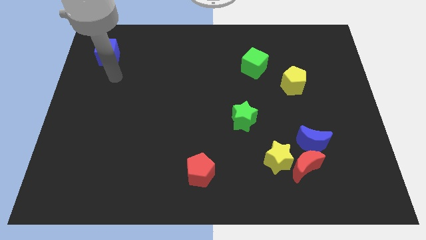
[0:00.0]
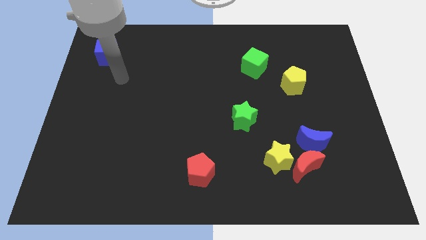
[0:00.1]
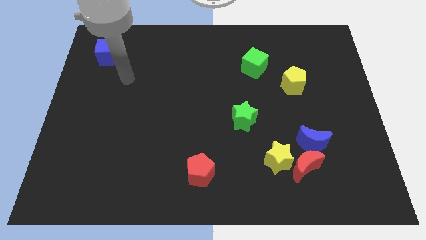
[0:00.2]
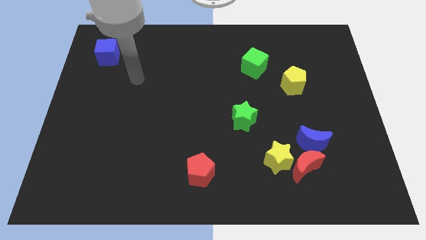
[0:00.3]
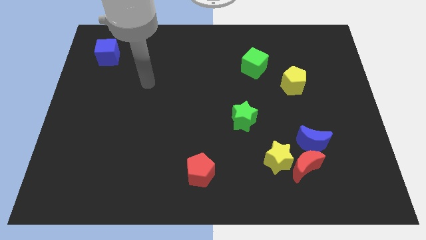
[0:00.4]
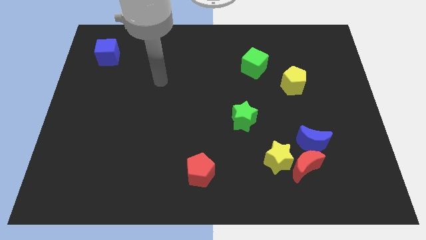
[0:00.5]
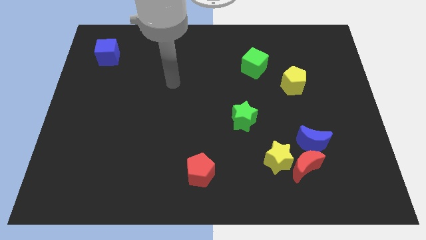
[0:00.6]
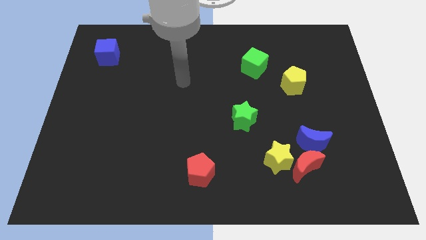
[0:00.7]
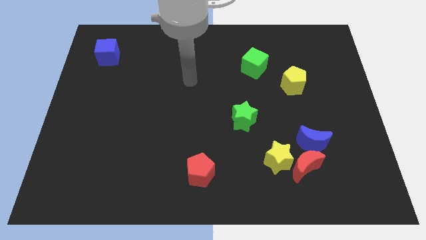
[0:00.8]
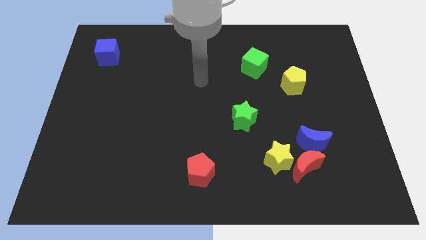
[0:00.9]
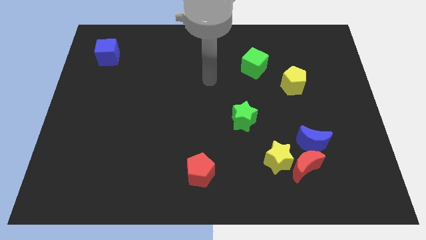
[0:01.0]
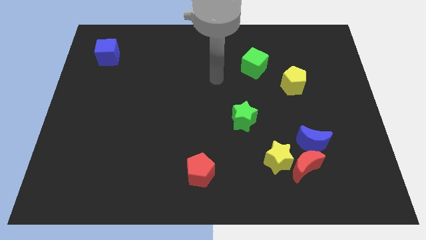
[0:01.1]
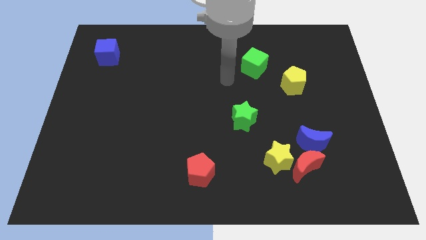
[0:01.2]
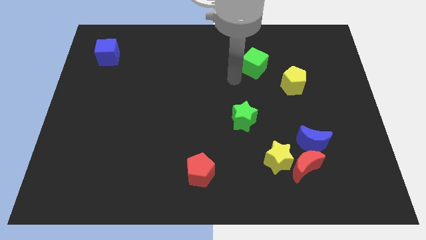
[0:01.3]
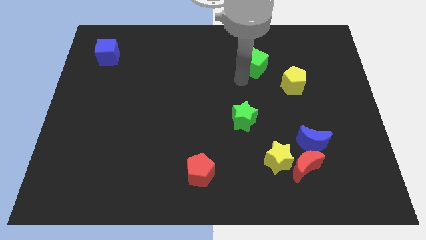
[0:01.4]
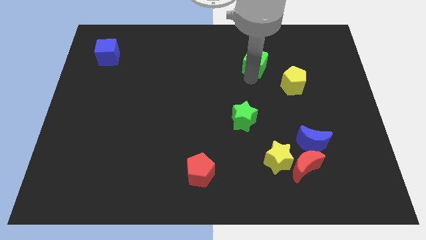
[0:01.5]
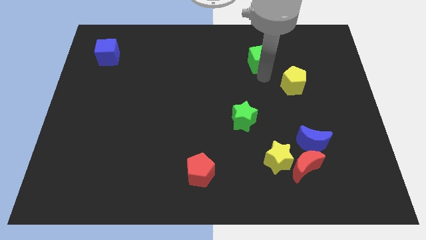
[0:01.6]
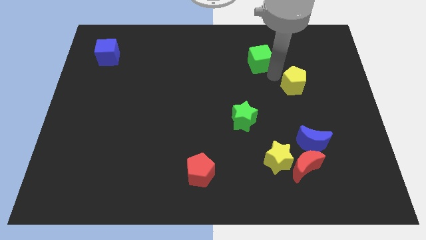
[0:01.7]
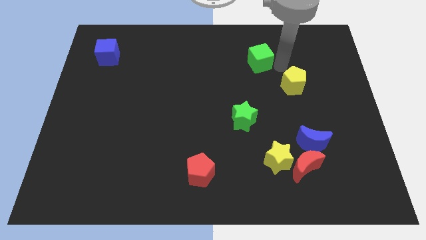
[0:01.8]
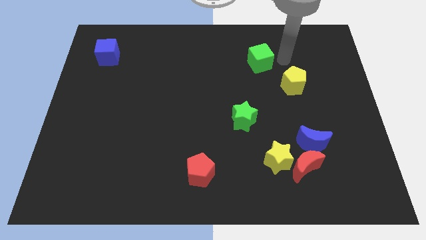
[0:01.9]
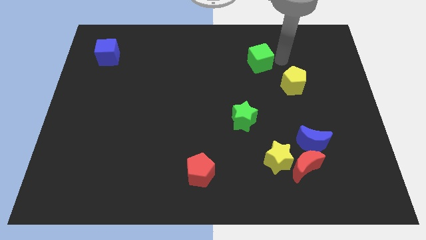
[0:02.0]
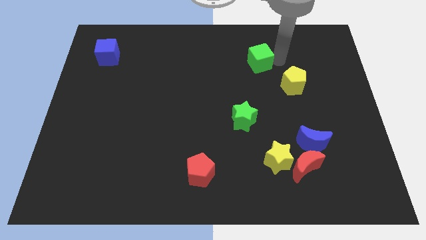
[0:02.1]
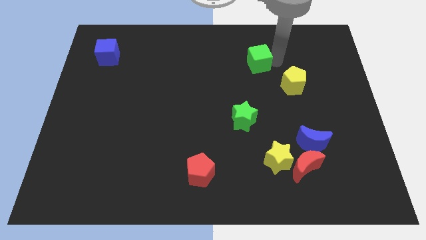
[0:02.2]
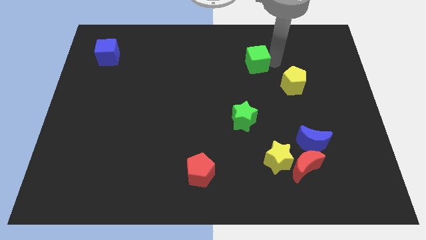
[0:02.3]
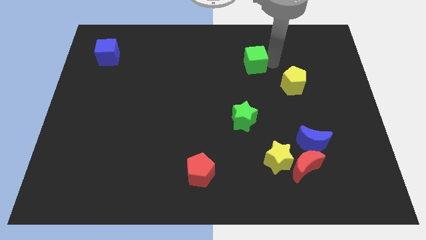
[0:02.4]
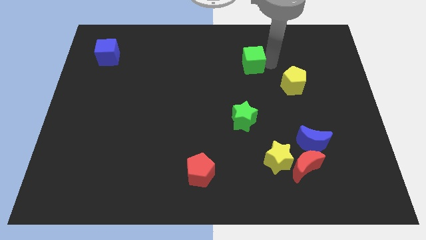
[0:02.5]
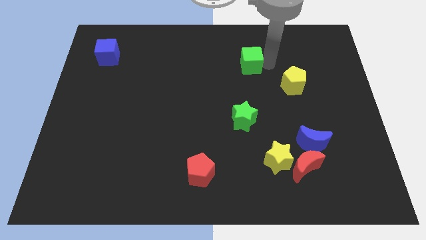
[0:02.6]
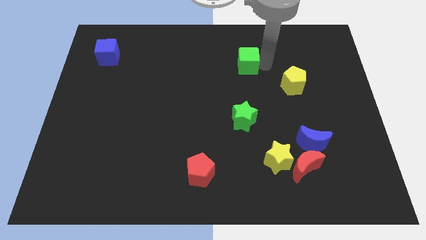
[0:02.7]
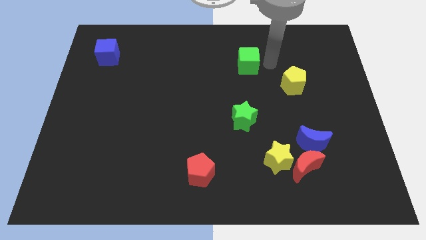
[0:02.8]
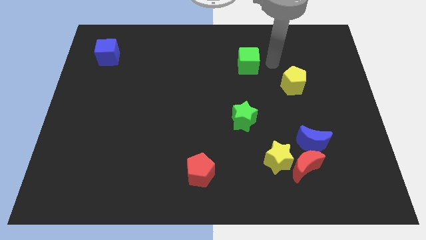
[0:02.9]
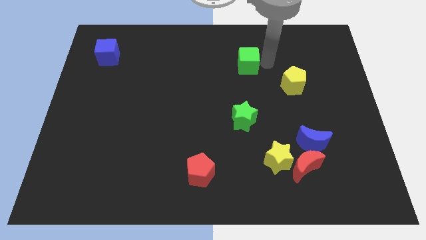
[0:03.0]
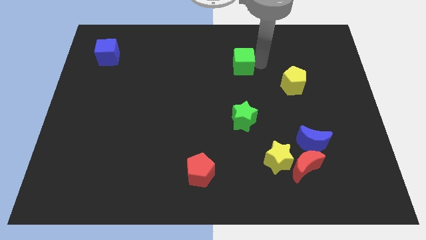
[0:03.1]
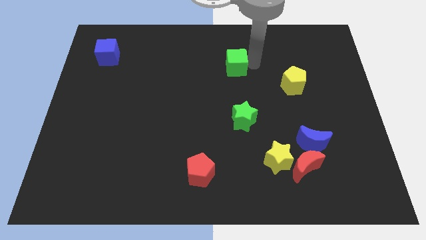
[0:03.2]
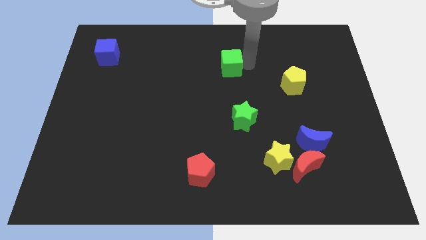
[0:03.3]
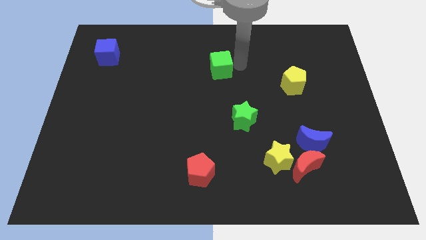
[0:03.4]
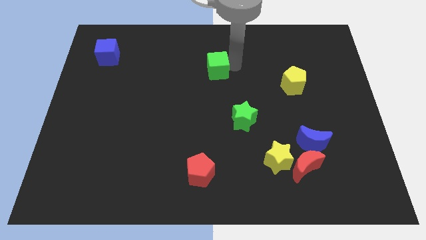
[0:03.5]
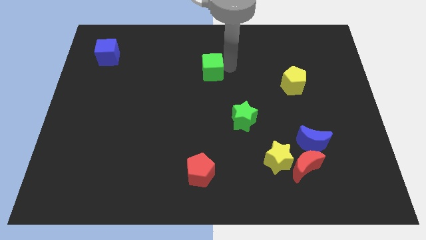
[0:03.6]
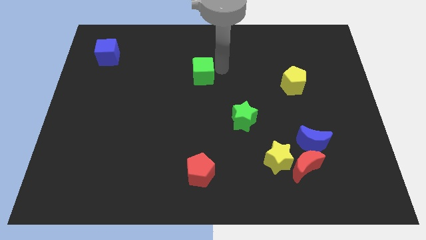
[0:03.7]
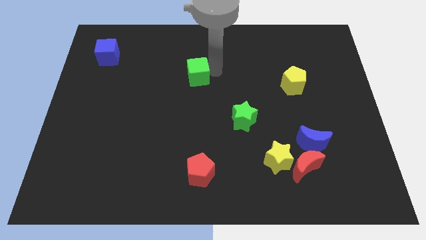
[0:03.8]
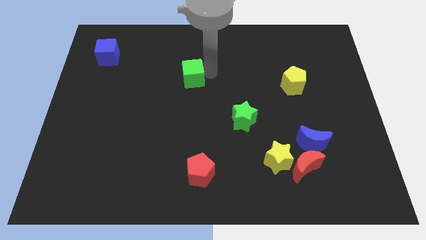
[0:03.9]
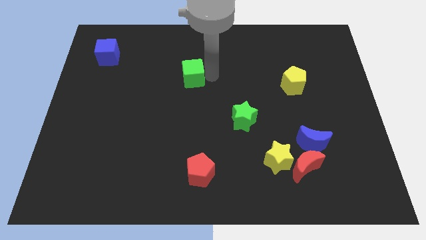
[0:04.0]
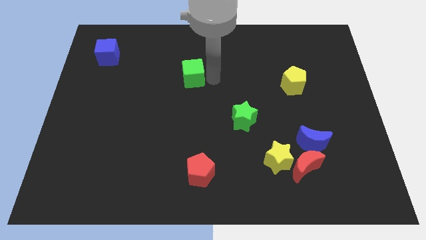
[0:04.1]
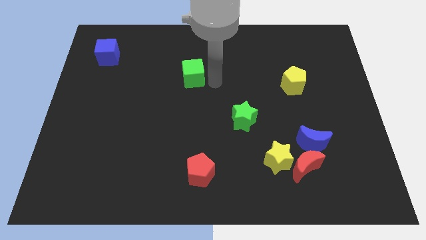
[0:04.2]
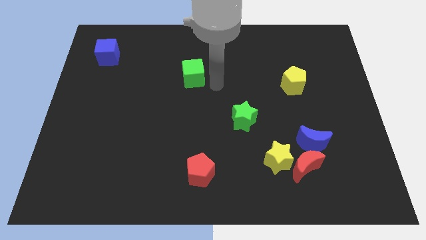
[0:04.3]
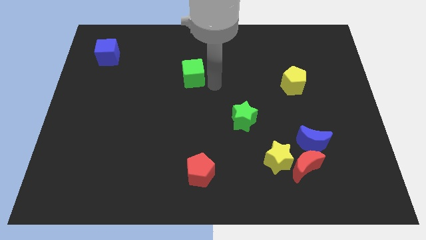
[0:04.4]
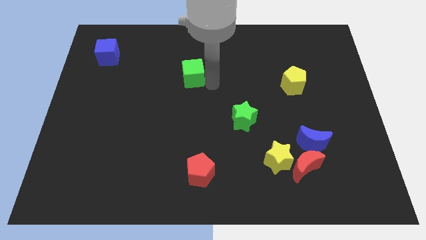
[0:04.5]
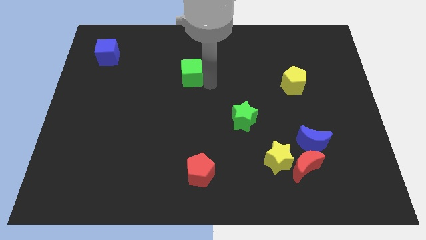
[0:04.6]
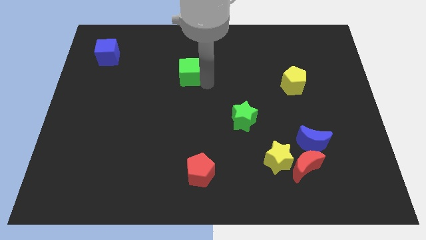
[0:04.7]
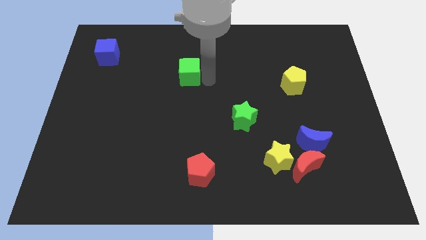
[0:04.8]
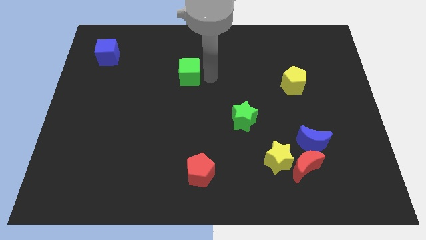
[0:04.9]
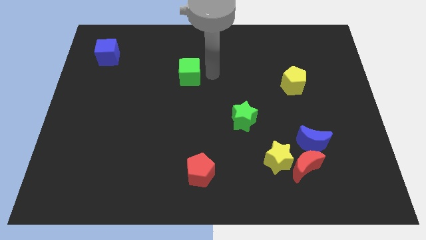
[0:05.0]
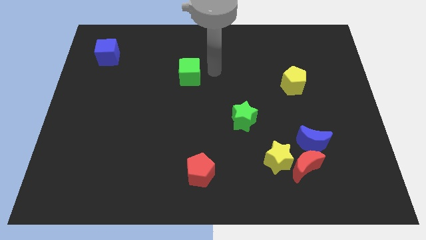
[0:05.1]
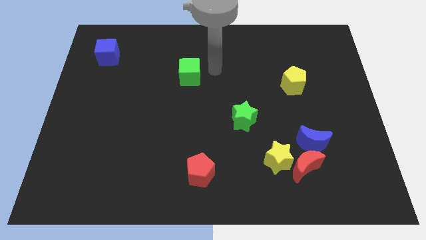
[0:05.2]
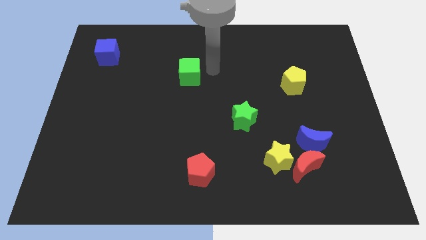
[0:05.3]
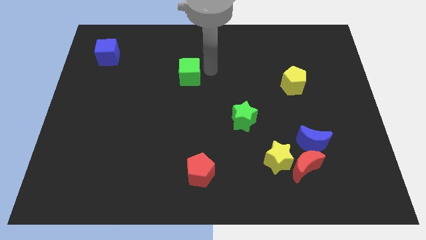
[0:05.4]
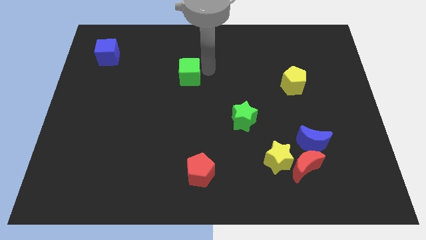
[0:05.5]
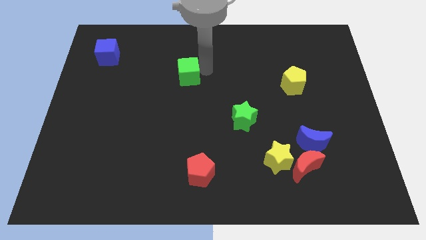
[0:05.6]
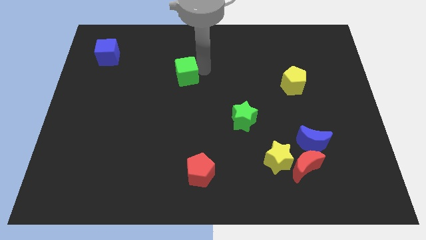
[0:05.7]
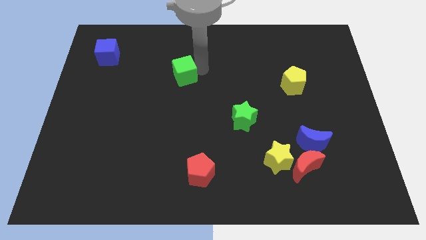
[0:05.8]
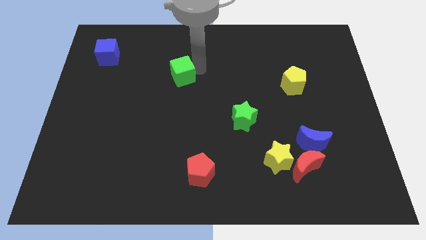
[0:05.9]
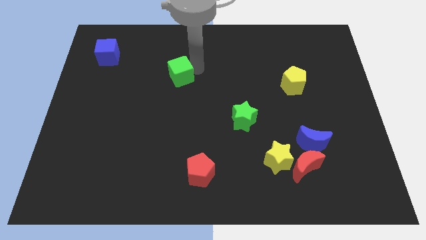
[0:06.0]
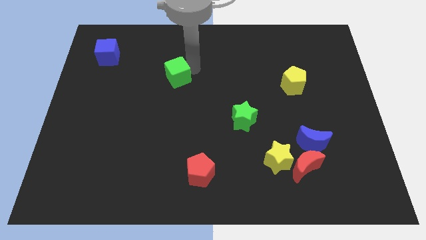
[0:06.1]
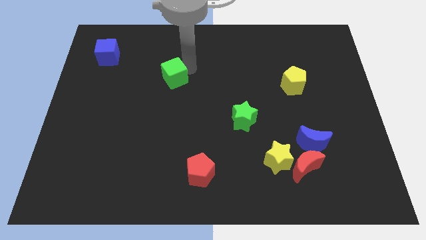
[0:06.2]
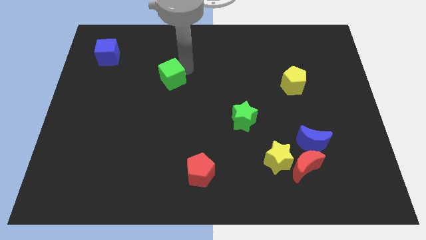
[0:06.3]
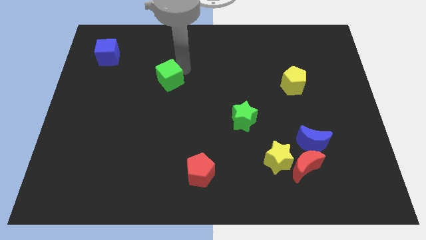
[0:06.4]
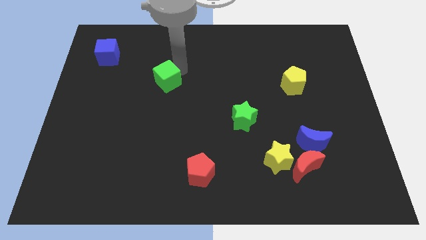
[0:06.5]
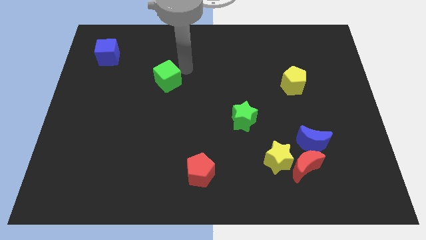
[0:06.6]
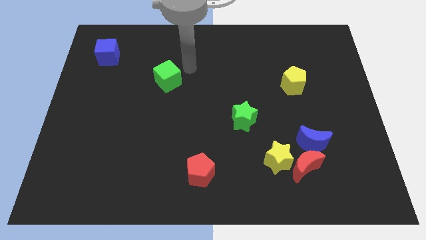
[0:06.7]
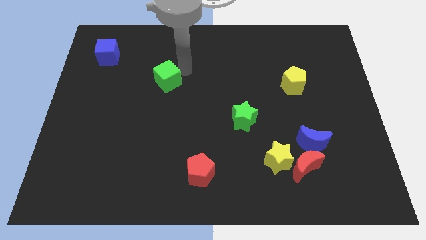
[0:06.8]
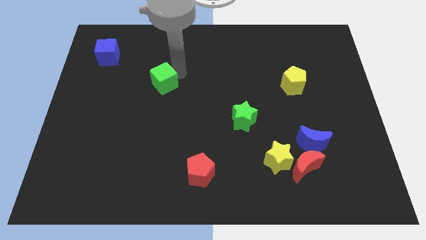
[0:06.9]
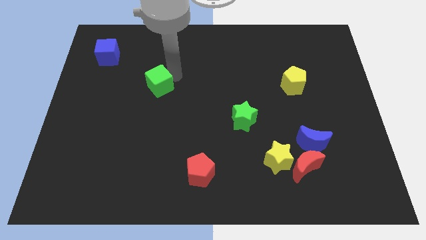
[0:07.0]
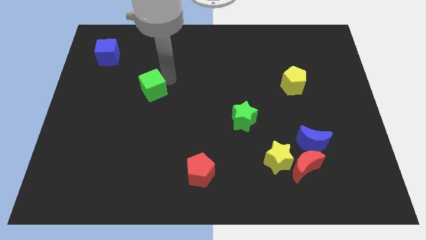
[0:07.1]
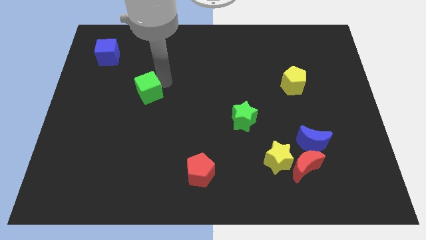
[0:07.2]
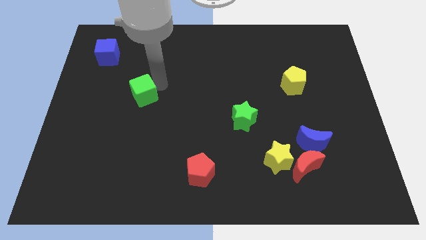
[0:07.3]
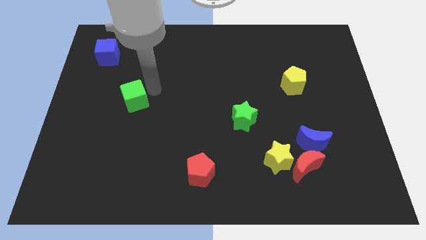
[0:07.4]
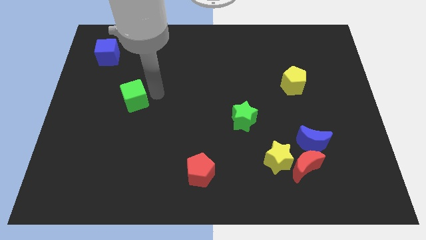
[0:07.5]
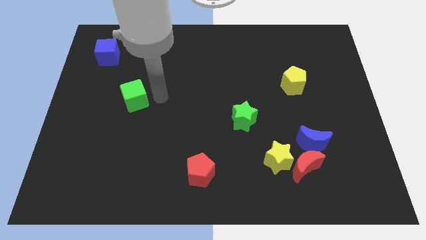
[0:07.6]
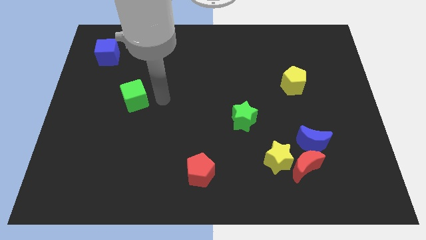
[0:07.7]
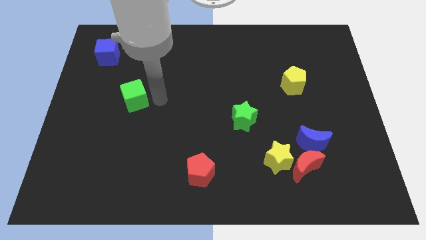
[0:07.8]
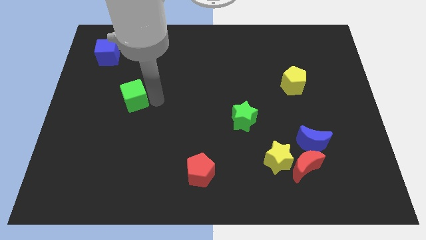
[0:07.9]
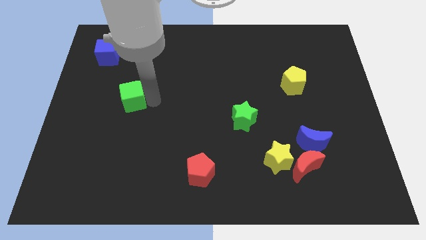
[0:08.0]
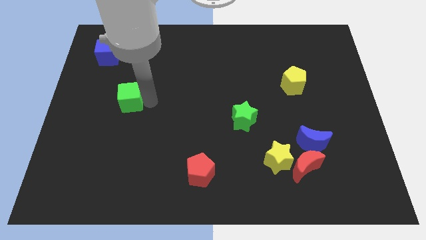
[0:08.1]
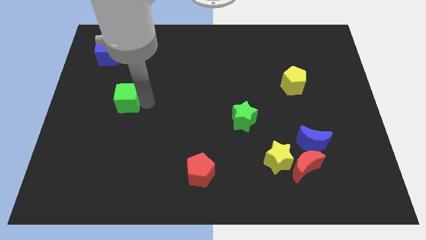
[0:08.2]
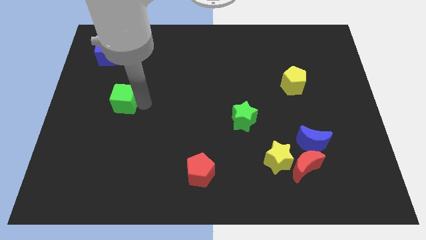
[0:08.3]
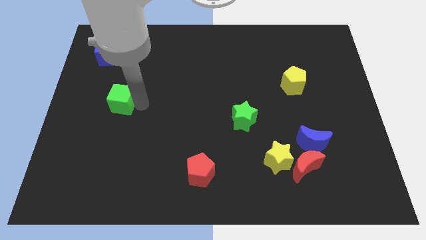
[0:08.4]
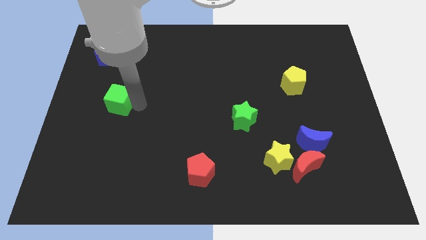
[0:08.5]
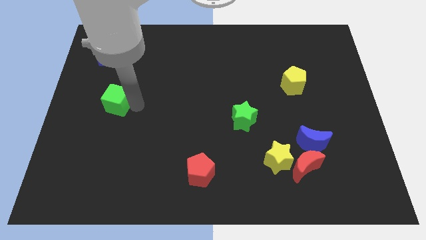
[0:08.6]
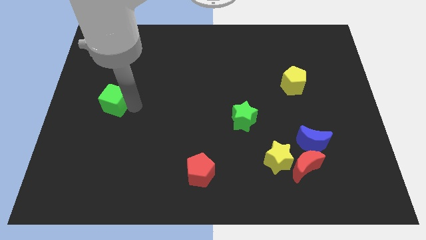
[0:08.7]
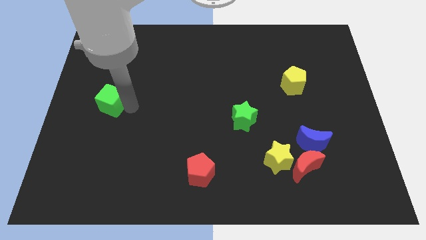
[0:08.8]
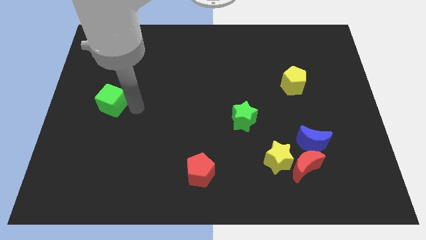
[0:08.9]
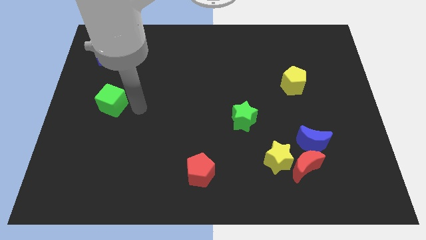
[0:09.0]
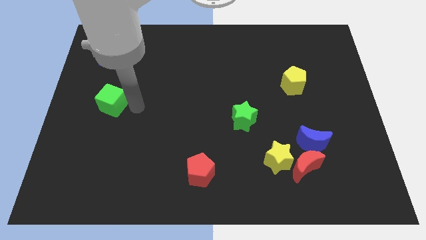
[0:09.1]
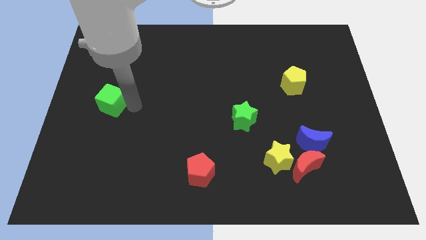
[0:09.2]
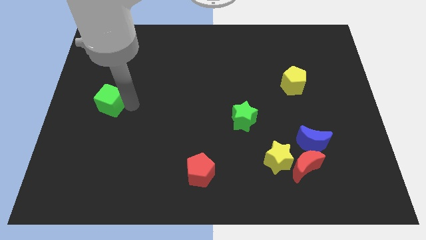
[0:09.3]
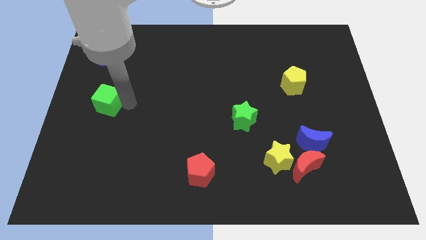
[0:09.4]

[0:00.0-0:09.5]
slide the green cube to the center left
